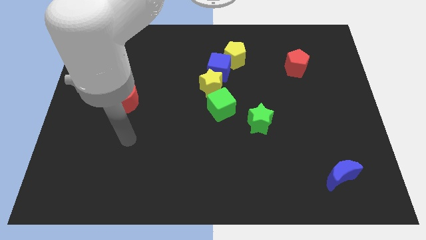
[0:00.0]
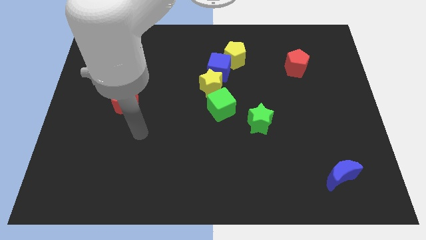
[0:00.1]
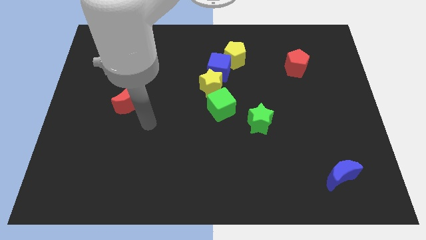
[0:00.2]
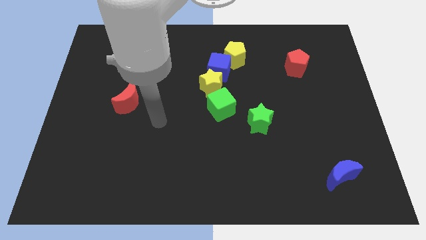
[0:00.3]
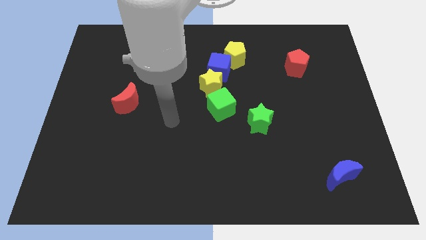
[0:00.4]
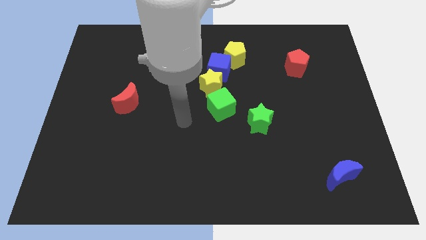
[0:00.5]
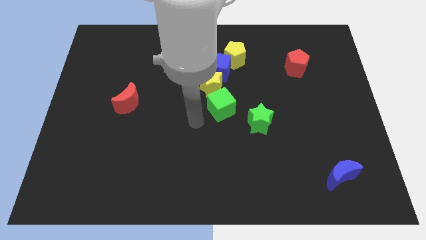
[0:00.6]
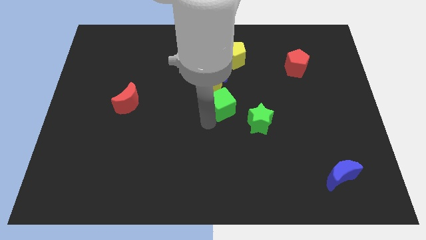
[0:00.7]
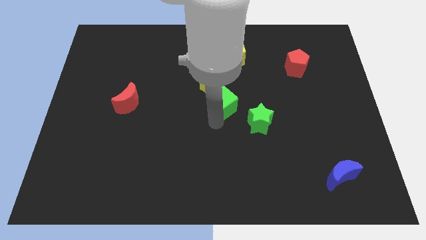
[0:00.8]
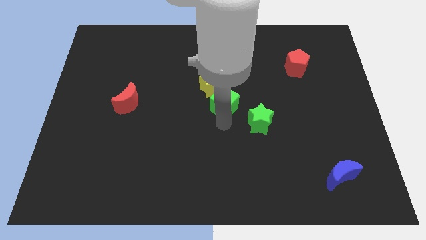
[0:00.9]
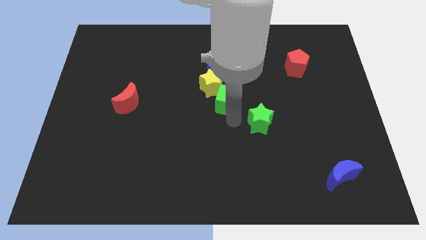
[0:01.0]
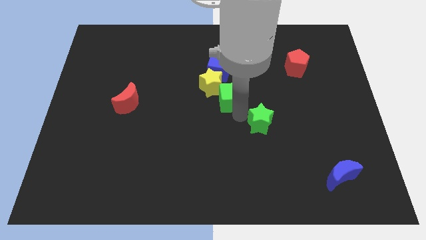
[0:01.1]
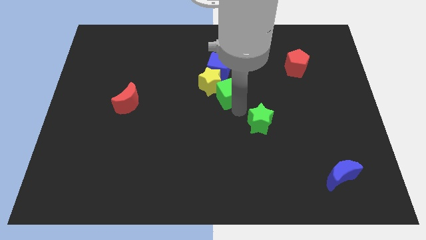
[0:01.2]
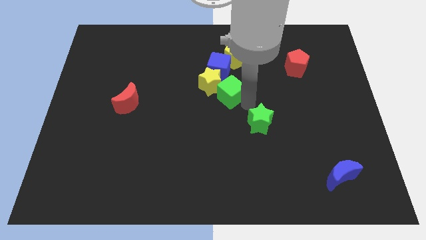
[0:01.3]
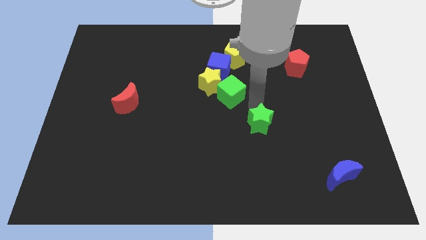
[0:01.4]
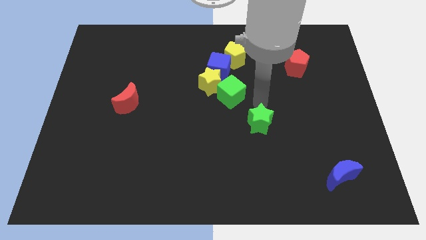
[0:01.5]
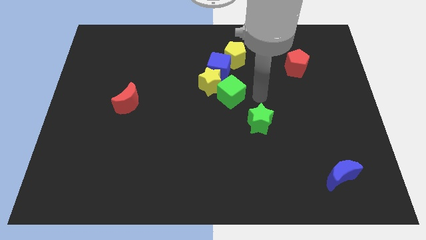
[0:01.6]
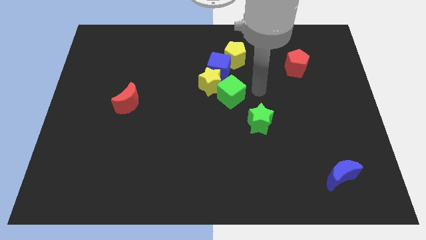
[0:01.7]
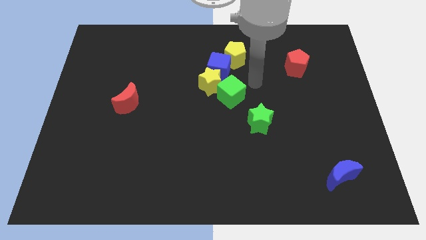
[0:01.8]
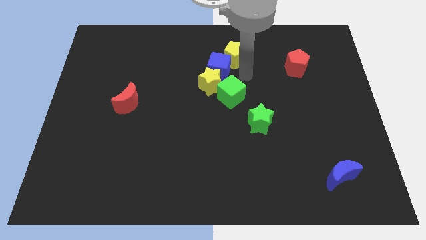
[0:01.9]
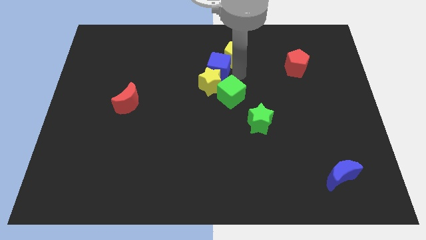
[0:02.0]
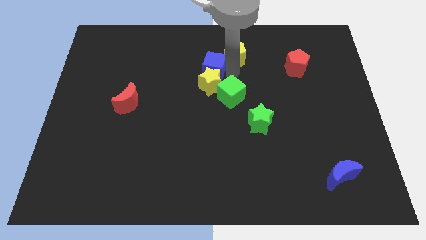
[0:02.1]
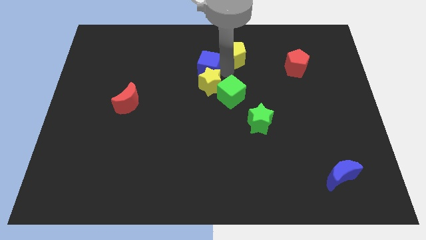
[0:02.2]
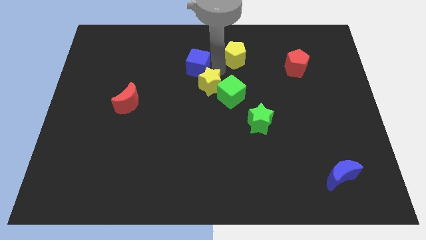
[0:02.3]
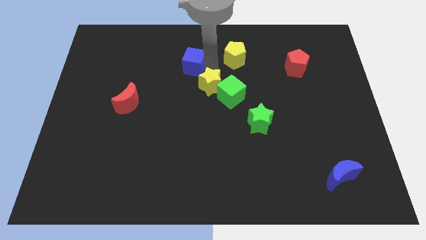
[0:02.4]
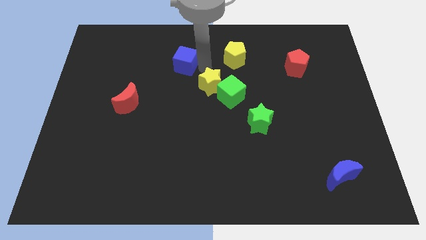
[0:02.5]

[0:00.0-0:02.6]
pull the blue cube apart from the yellow star and yellow pentagon

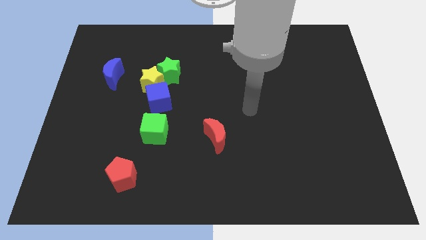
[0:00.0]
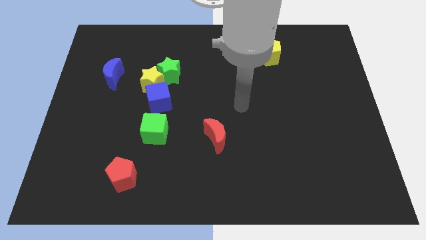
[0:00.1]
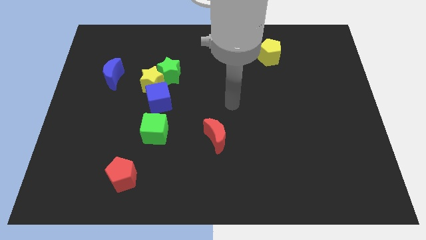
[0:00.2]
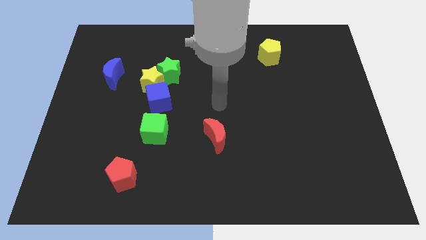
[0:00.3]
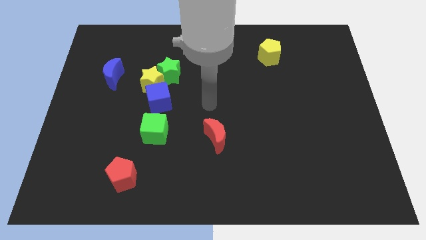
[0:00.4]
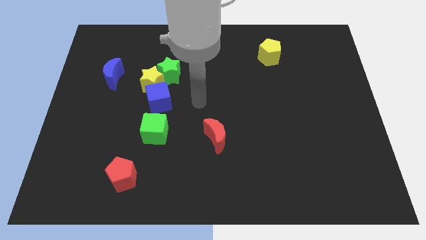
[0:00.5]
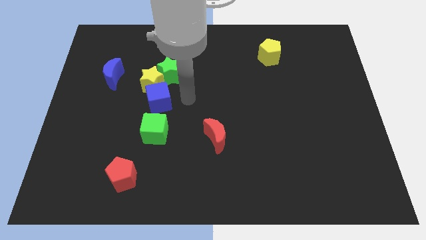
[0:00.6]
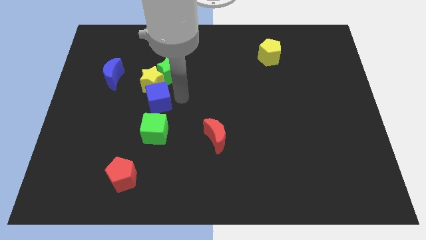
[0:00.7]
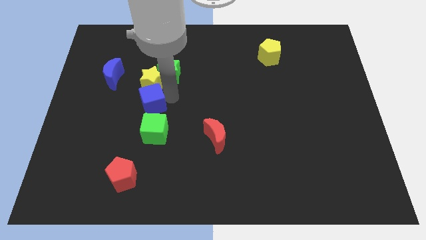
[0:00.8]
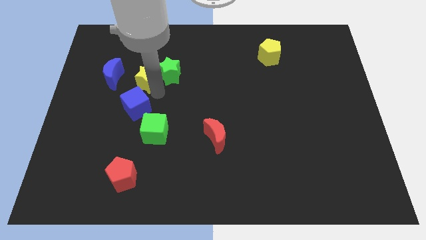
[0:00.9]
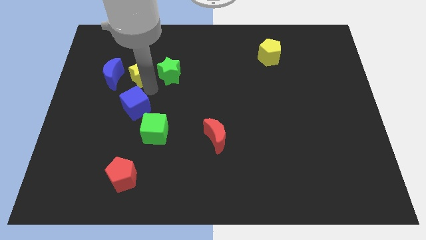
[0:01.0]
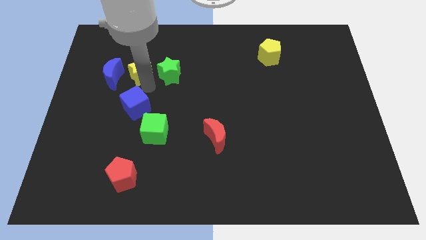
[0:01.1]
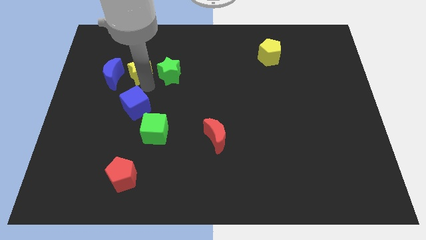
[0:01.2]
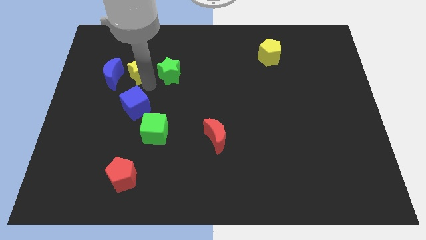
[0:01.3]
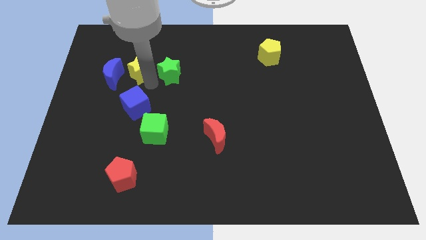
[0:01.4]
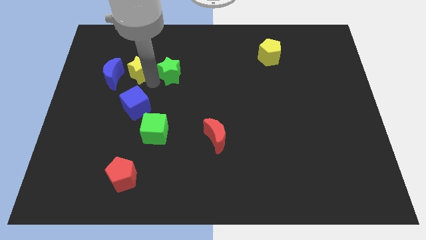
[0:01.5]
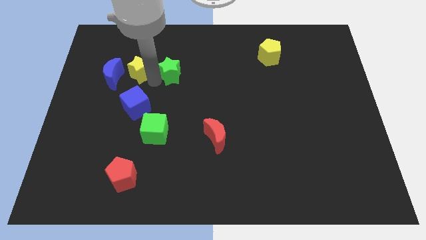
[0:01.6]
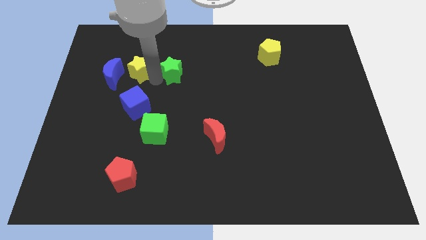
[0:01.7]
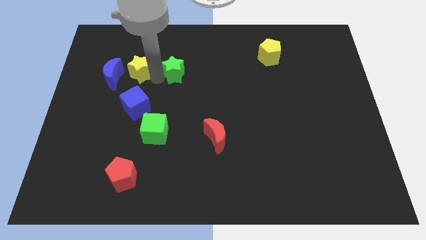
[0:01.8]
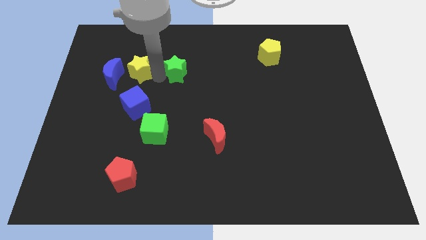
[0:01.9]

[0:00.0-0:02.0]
separate the green star from the yellow star and blue cube

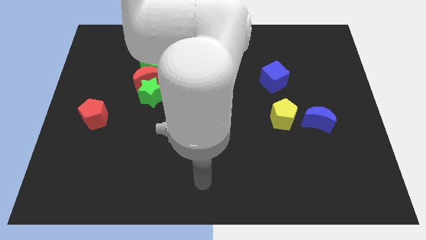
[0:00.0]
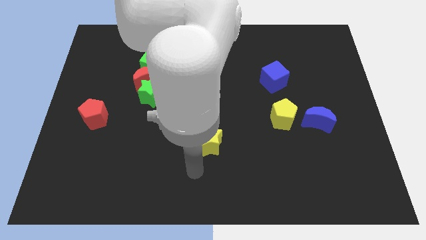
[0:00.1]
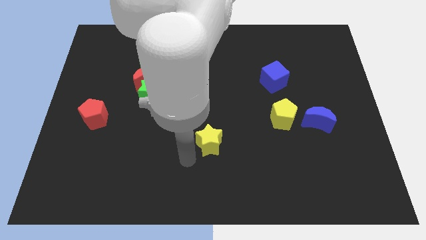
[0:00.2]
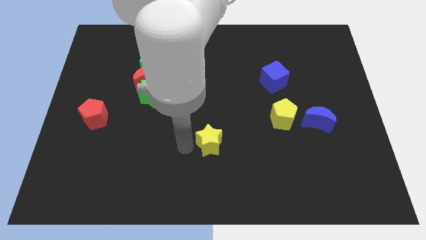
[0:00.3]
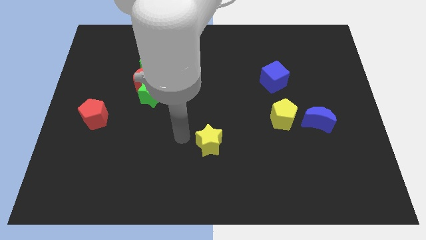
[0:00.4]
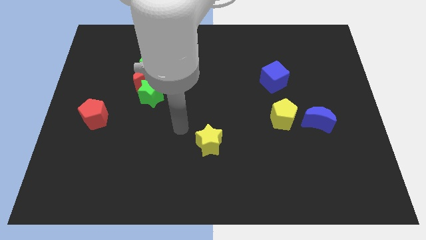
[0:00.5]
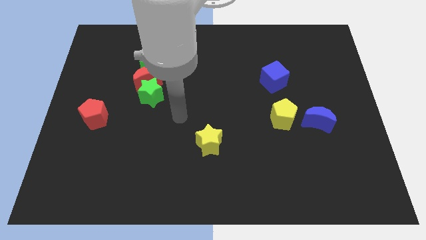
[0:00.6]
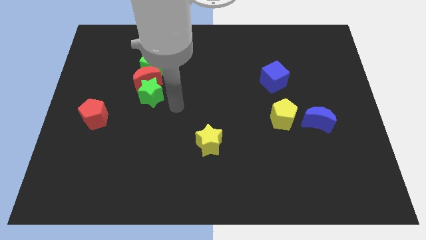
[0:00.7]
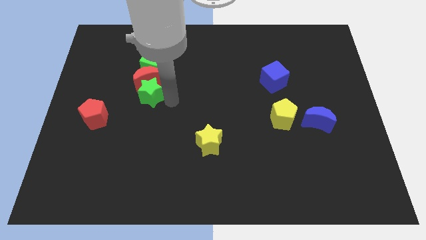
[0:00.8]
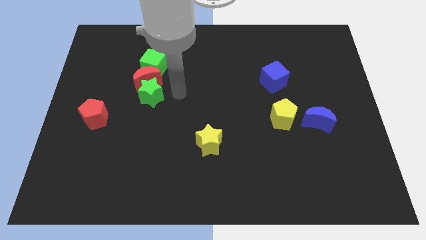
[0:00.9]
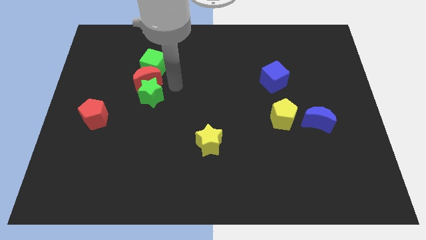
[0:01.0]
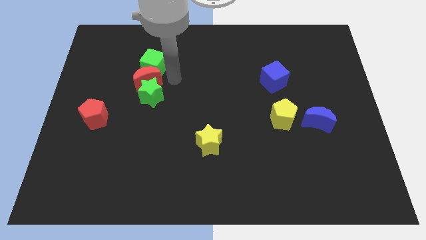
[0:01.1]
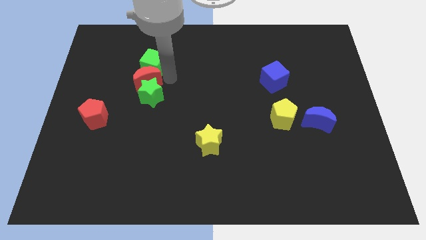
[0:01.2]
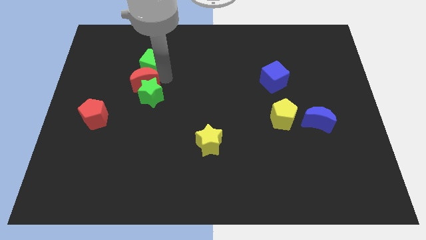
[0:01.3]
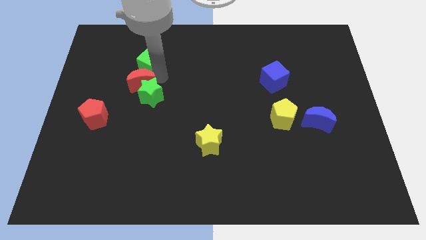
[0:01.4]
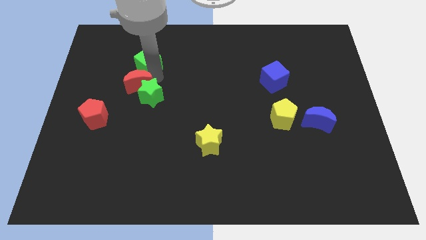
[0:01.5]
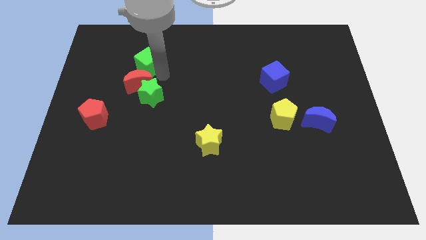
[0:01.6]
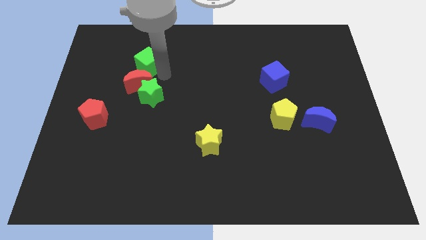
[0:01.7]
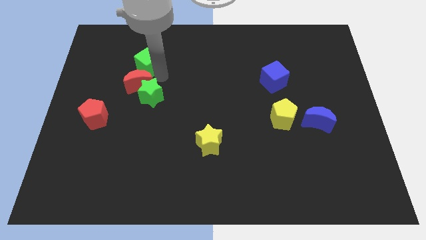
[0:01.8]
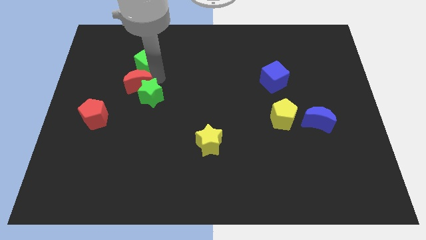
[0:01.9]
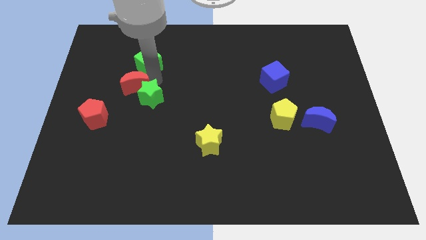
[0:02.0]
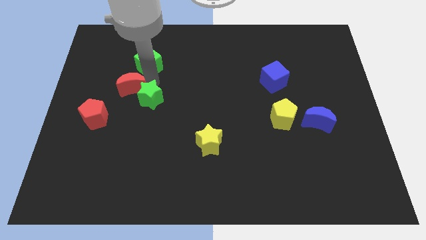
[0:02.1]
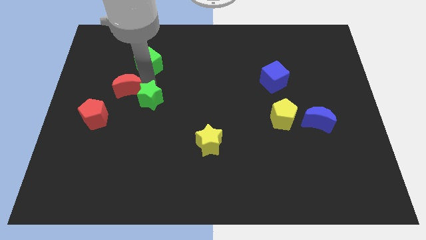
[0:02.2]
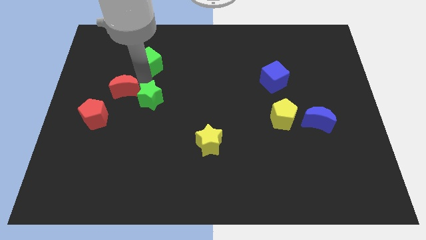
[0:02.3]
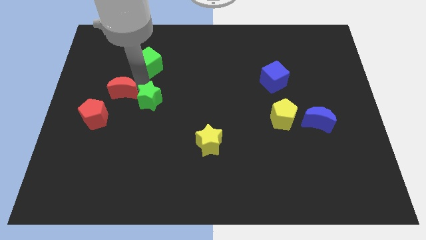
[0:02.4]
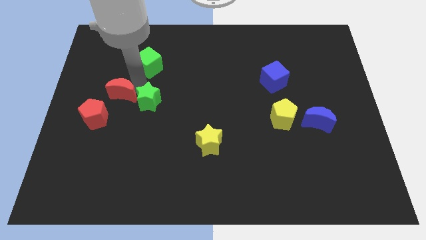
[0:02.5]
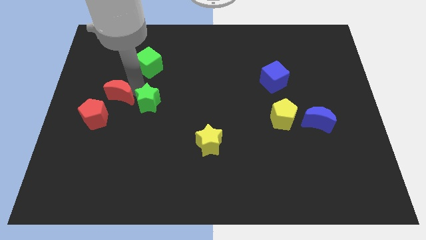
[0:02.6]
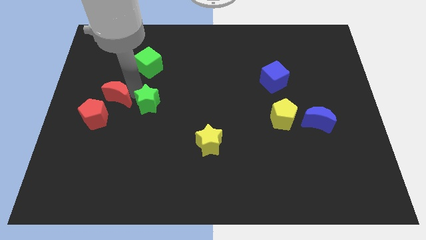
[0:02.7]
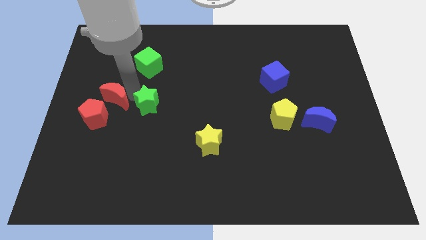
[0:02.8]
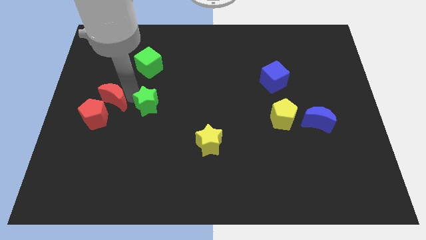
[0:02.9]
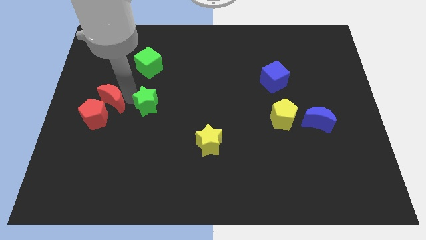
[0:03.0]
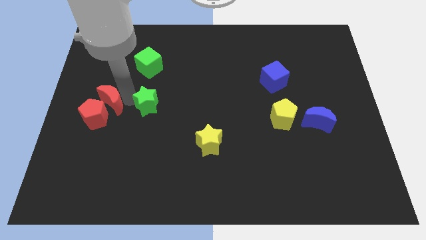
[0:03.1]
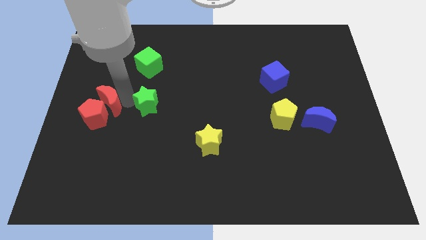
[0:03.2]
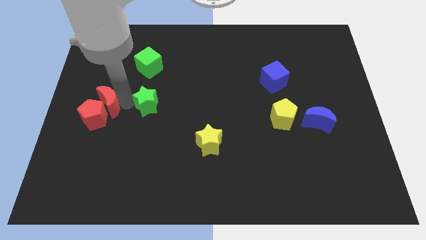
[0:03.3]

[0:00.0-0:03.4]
move the red moon away from the green star and green cube

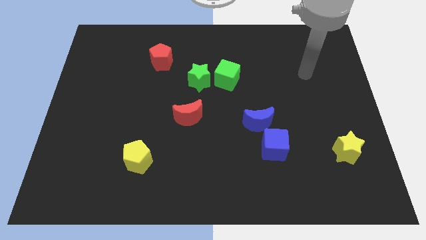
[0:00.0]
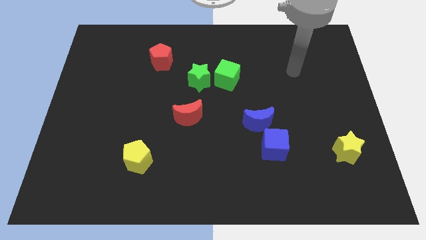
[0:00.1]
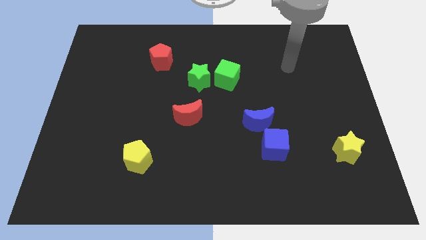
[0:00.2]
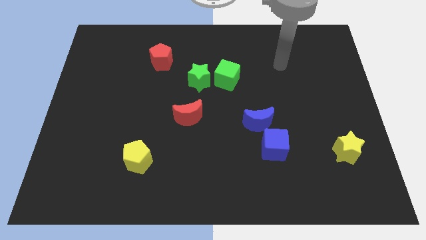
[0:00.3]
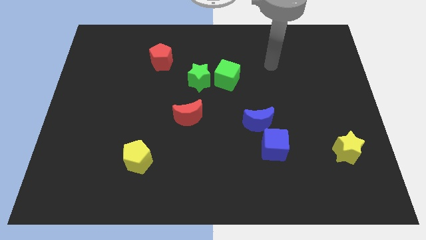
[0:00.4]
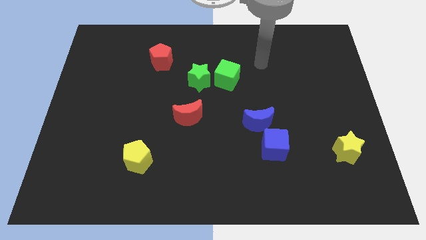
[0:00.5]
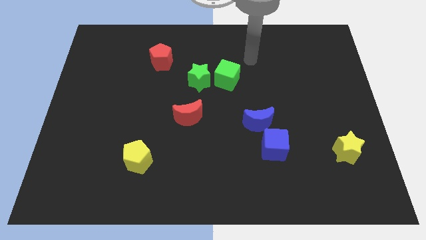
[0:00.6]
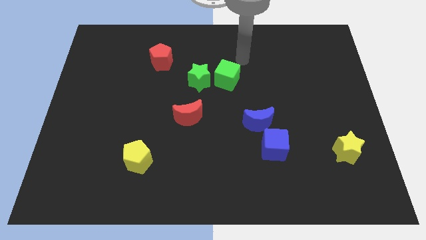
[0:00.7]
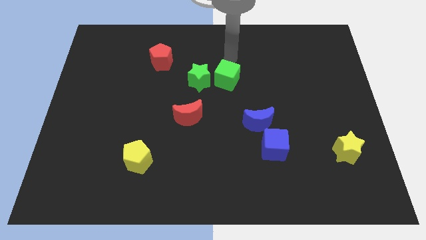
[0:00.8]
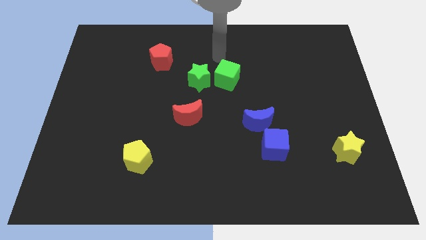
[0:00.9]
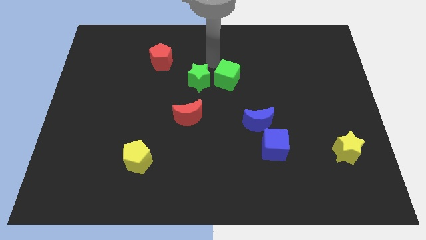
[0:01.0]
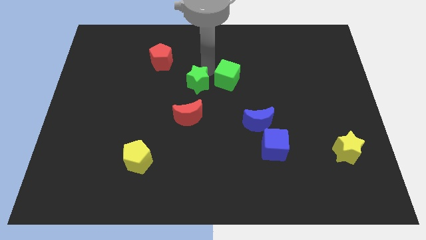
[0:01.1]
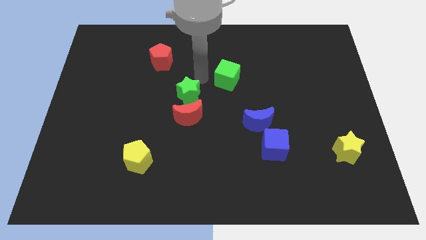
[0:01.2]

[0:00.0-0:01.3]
pull the green cube apart from the green star
